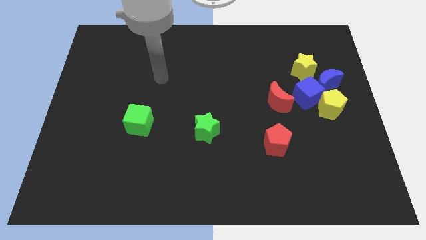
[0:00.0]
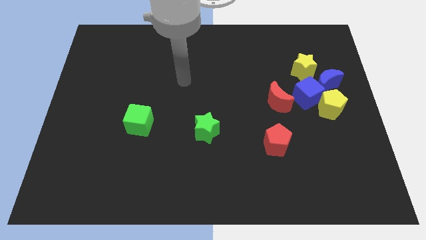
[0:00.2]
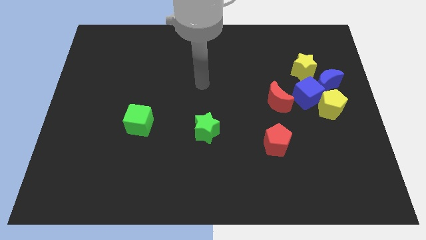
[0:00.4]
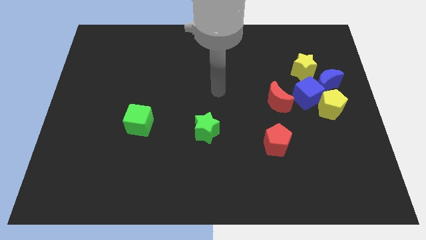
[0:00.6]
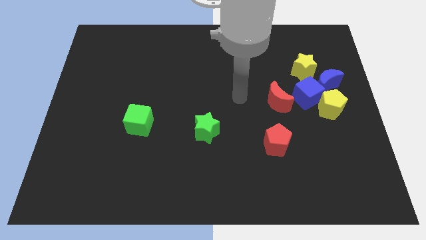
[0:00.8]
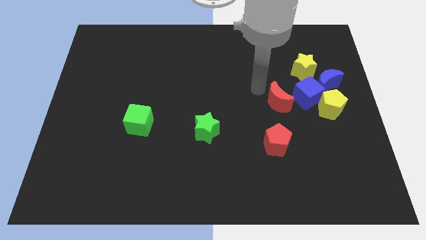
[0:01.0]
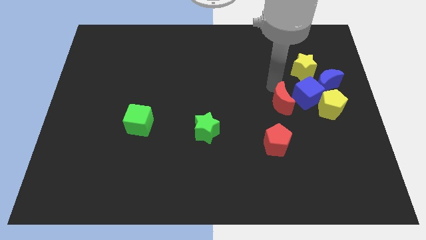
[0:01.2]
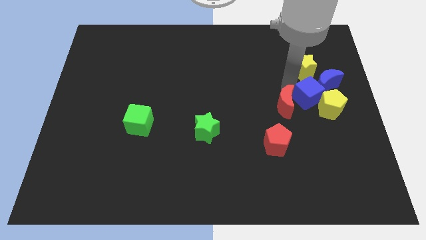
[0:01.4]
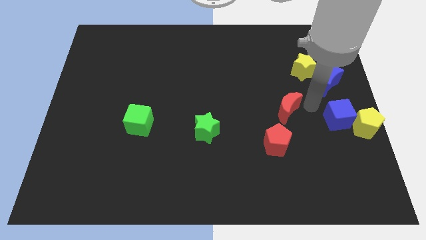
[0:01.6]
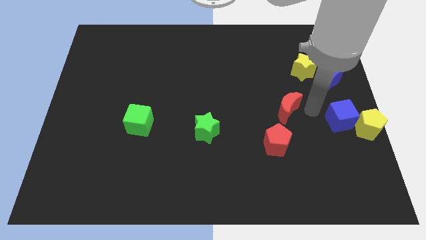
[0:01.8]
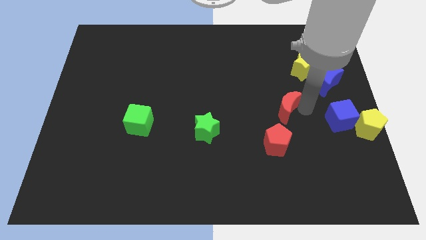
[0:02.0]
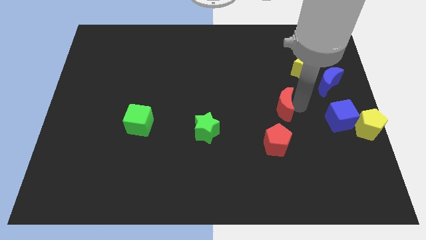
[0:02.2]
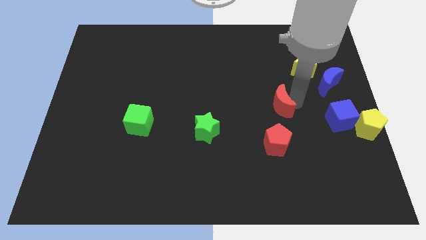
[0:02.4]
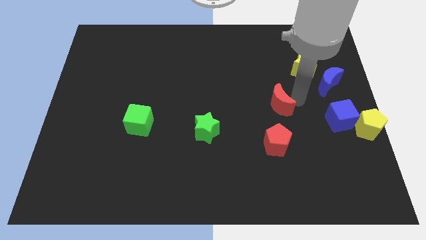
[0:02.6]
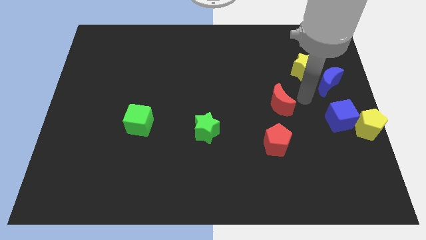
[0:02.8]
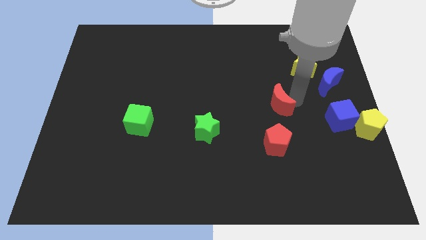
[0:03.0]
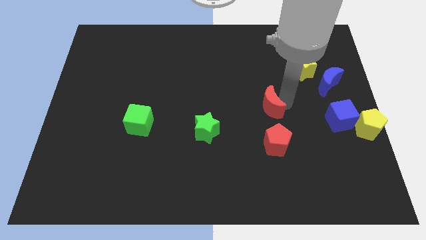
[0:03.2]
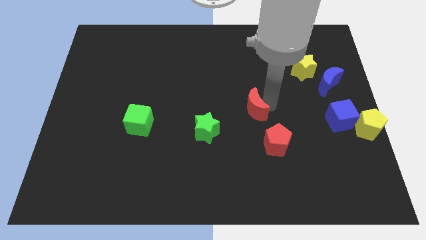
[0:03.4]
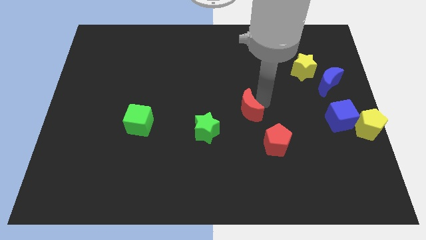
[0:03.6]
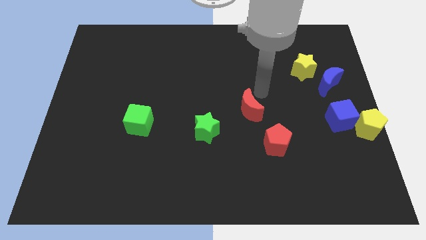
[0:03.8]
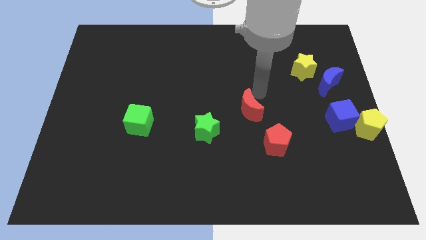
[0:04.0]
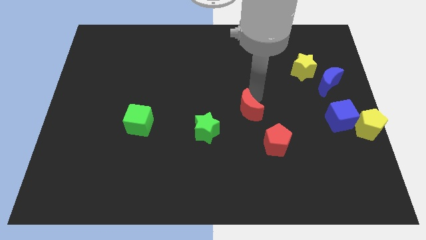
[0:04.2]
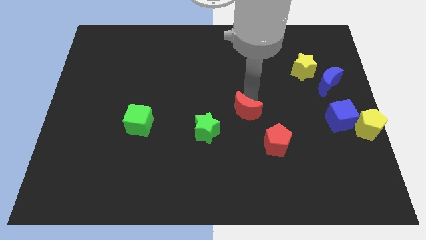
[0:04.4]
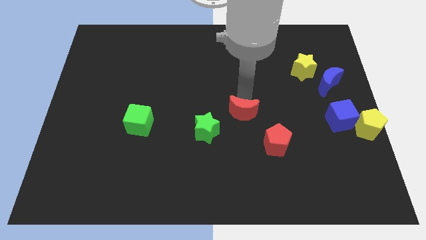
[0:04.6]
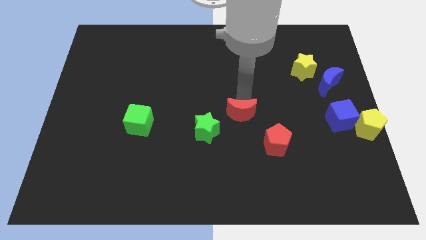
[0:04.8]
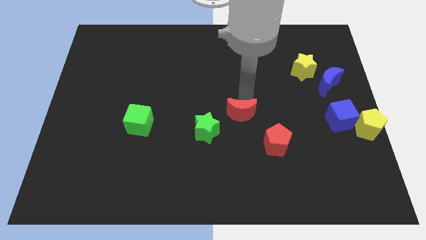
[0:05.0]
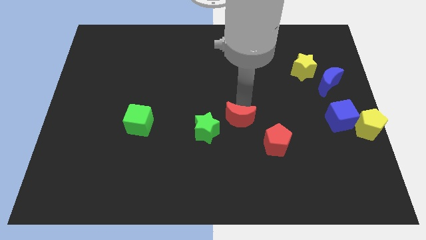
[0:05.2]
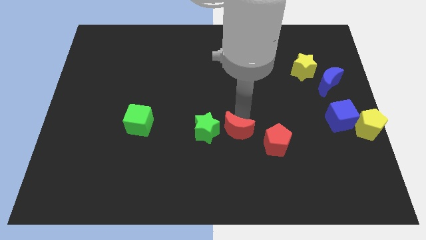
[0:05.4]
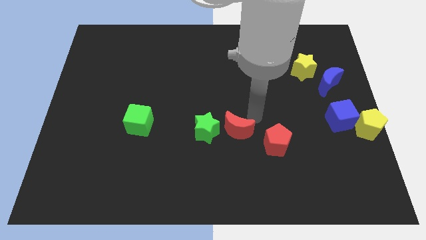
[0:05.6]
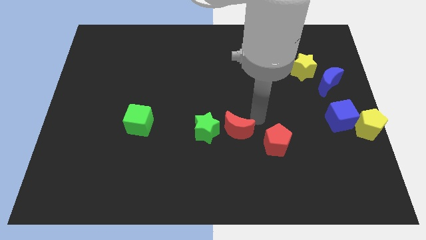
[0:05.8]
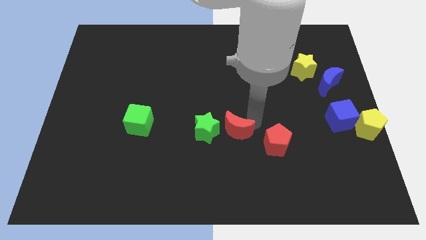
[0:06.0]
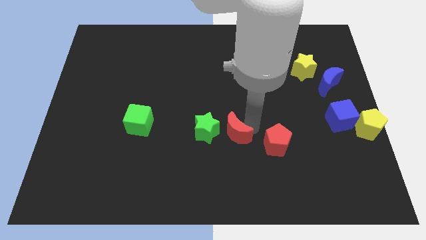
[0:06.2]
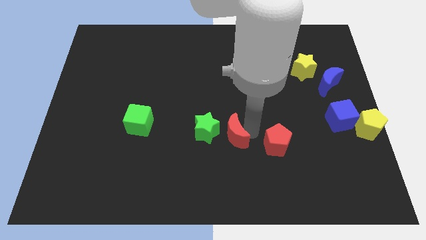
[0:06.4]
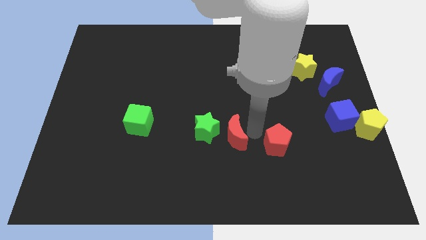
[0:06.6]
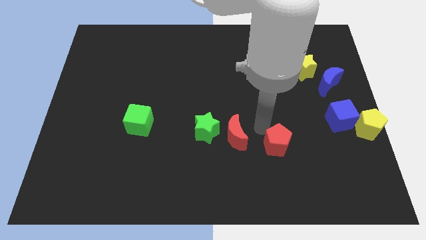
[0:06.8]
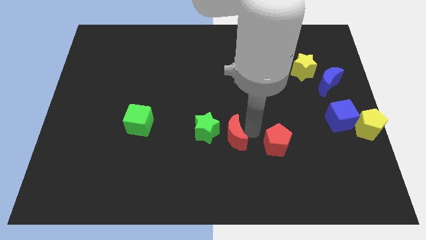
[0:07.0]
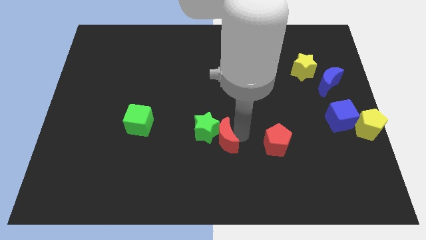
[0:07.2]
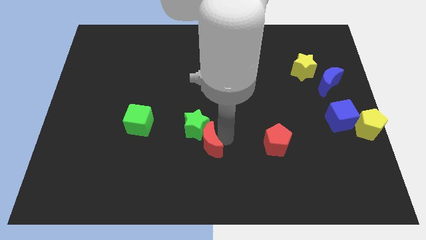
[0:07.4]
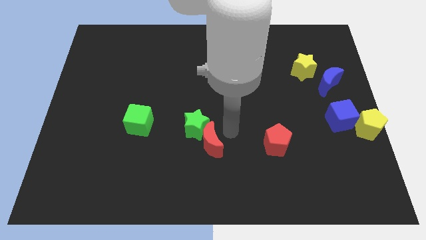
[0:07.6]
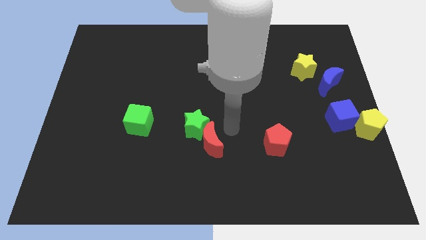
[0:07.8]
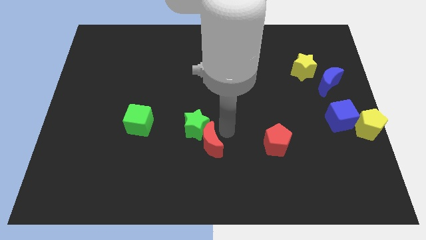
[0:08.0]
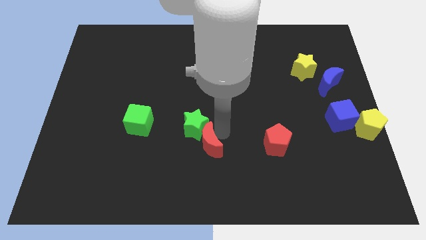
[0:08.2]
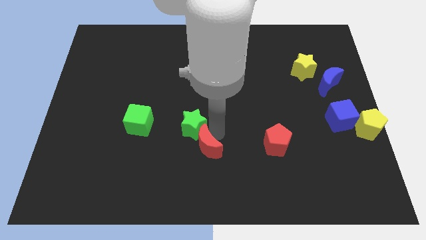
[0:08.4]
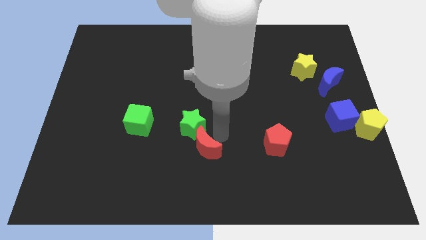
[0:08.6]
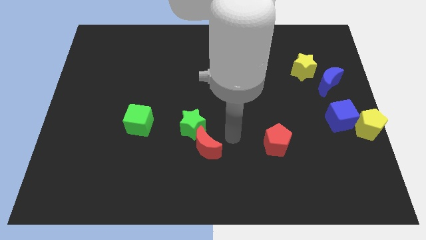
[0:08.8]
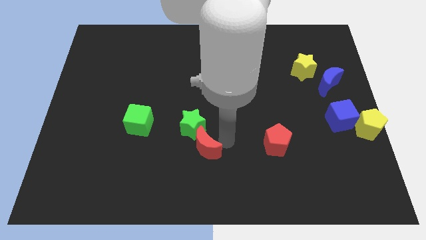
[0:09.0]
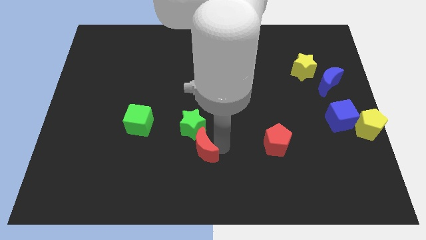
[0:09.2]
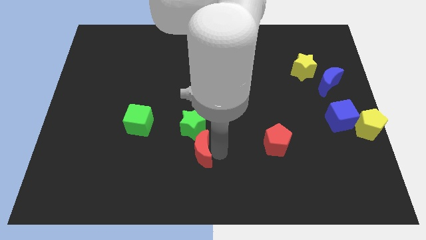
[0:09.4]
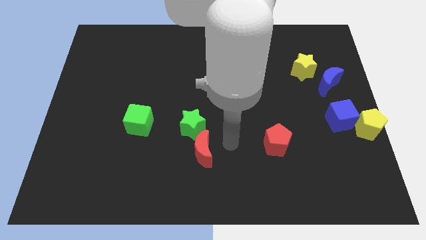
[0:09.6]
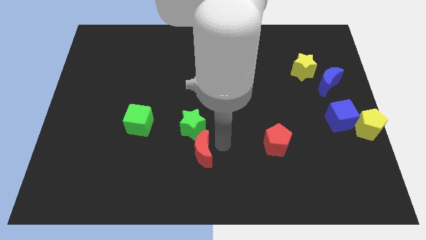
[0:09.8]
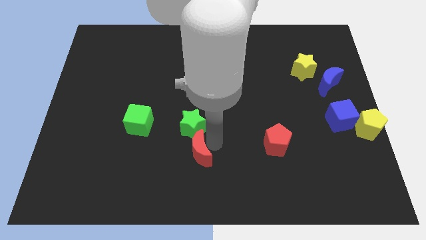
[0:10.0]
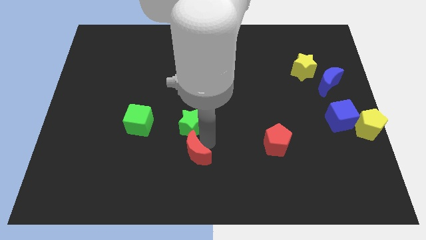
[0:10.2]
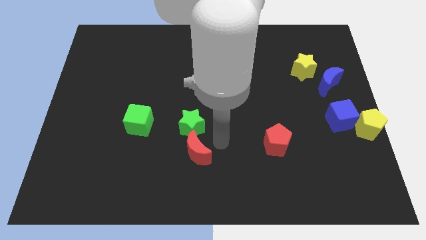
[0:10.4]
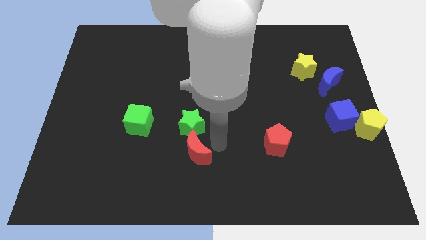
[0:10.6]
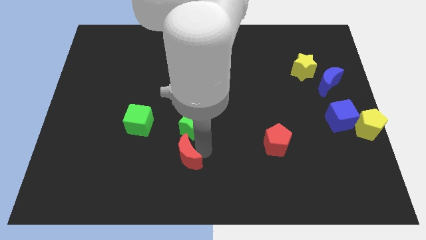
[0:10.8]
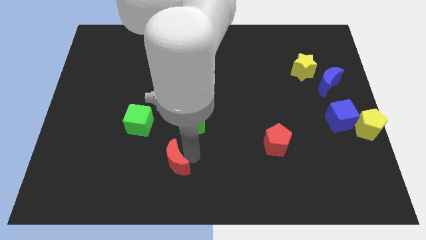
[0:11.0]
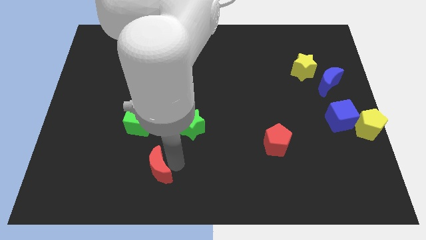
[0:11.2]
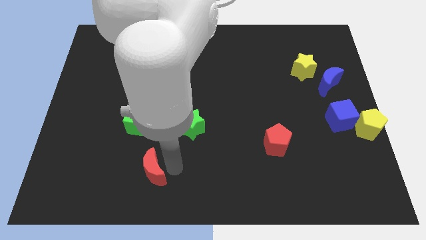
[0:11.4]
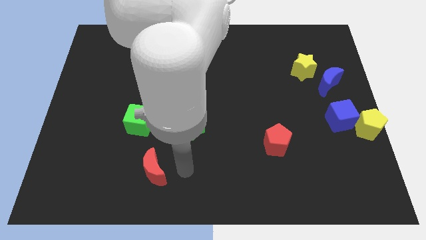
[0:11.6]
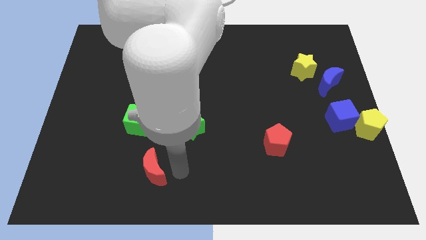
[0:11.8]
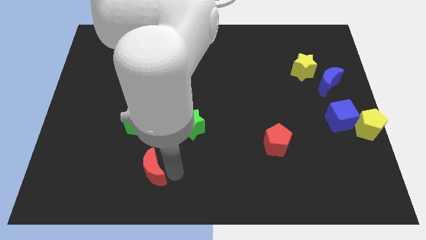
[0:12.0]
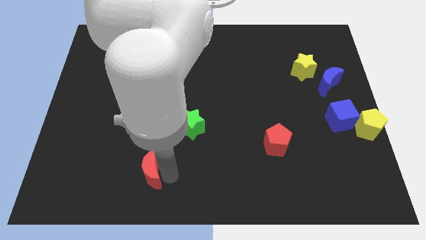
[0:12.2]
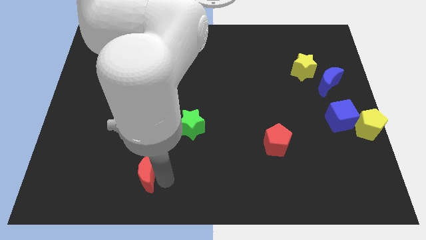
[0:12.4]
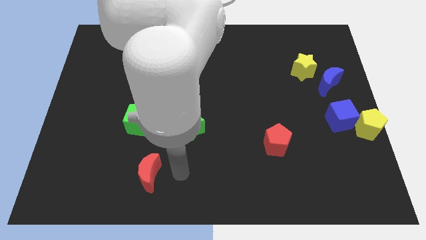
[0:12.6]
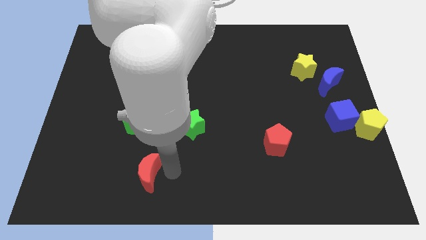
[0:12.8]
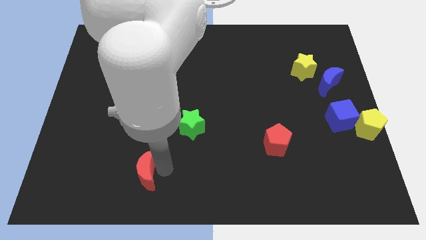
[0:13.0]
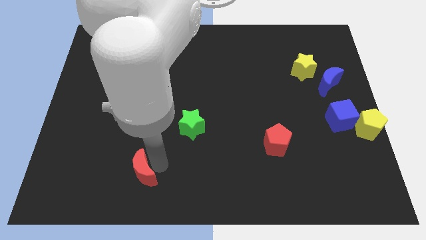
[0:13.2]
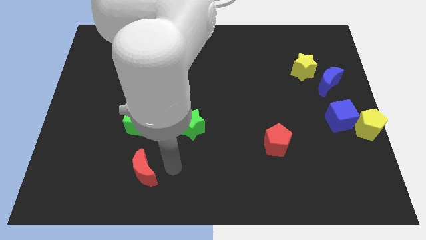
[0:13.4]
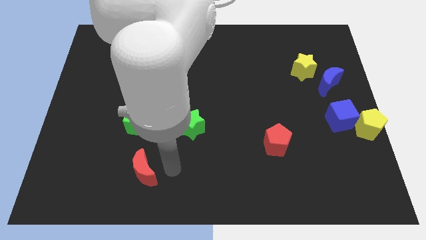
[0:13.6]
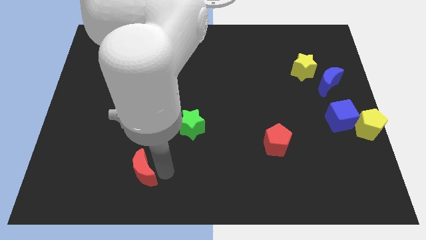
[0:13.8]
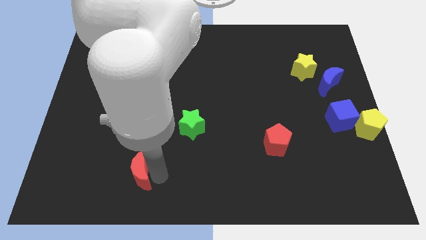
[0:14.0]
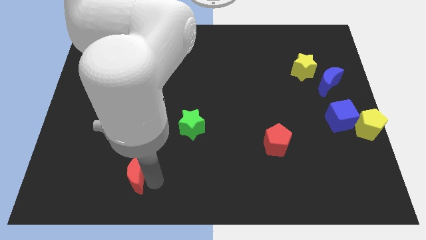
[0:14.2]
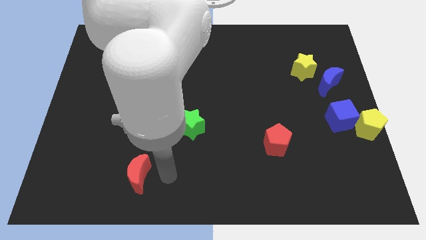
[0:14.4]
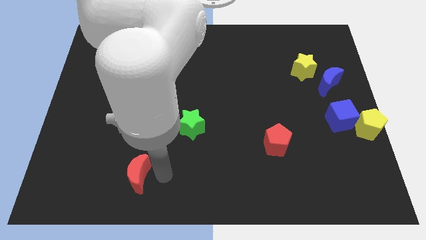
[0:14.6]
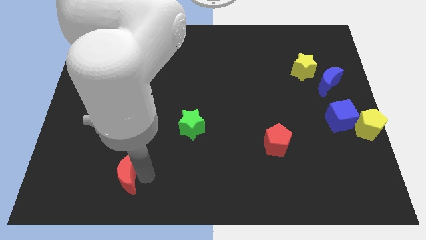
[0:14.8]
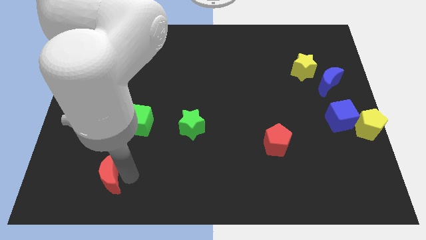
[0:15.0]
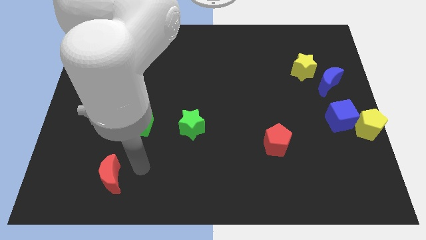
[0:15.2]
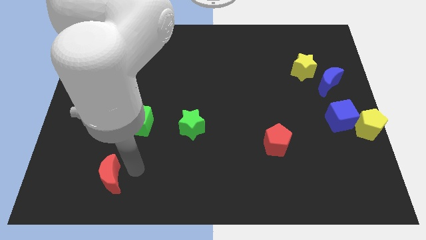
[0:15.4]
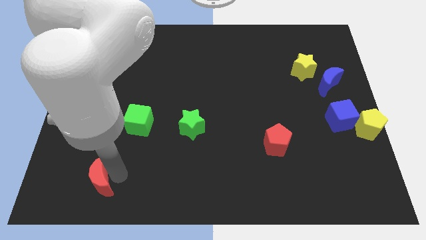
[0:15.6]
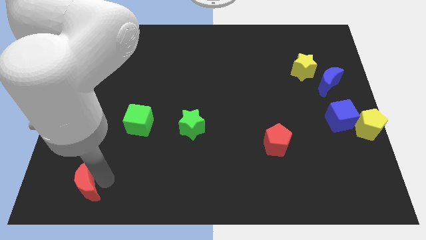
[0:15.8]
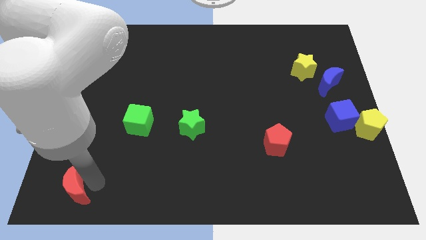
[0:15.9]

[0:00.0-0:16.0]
push the red moon to the bottom left corner
